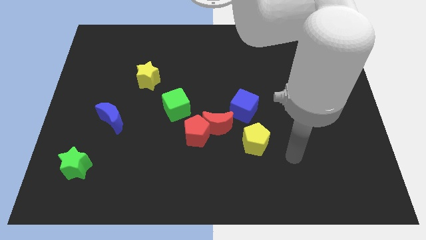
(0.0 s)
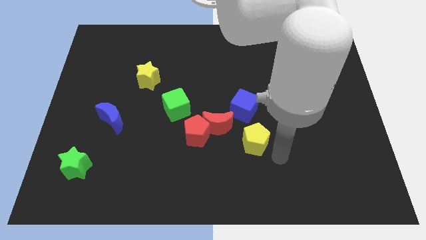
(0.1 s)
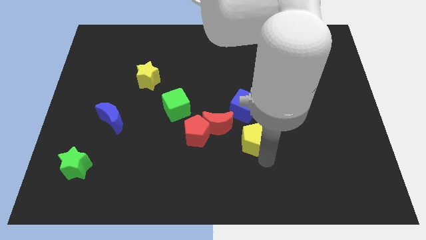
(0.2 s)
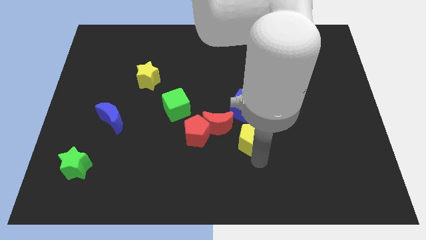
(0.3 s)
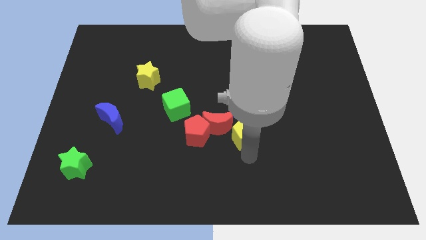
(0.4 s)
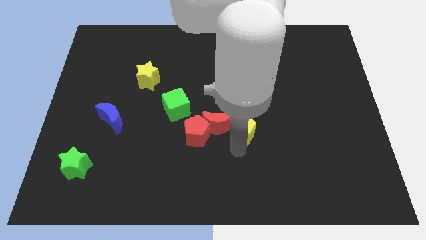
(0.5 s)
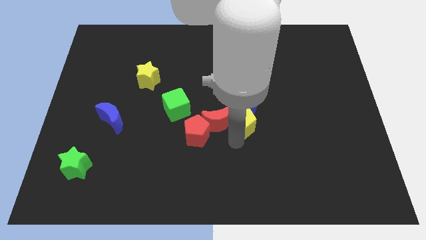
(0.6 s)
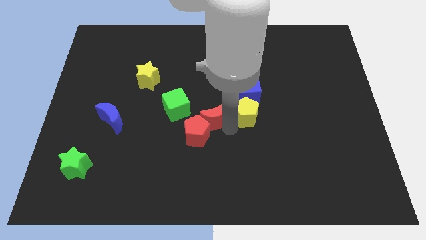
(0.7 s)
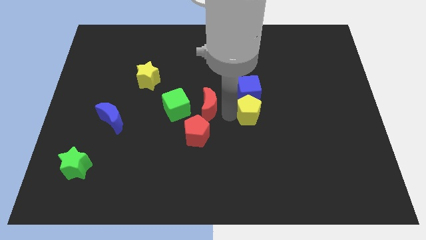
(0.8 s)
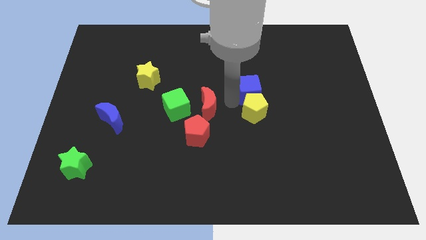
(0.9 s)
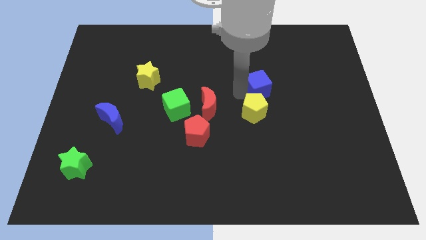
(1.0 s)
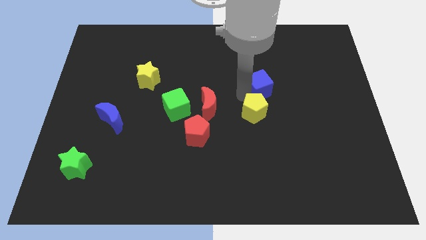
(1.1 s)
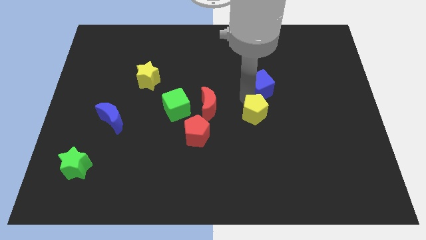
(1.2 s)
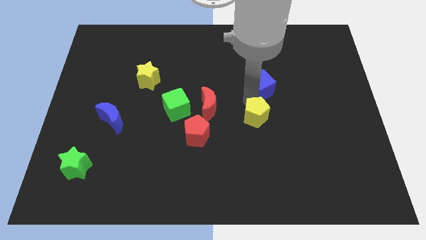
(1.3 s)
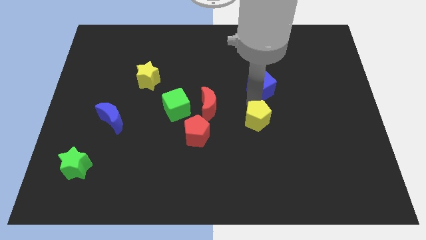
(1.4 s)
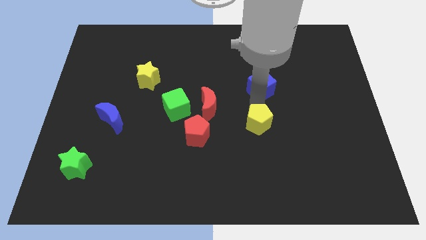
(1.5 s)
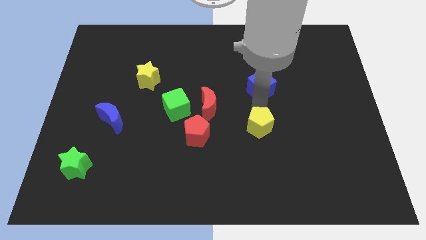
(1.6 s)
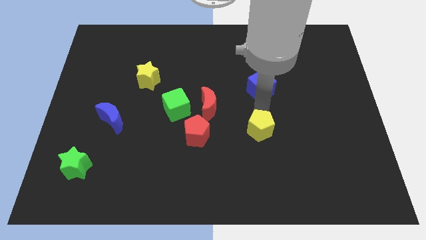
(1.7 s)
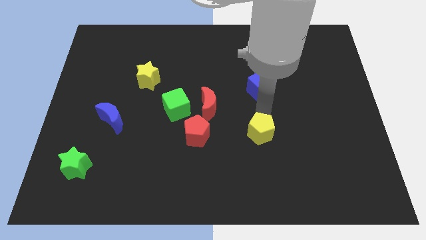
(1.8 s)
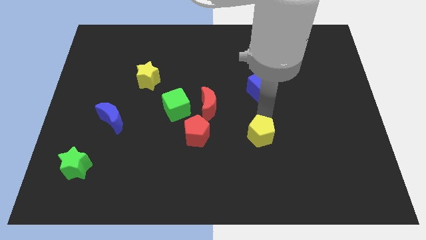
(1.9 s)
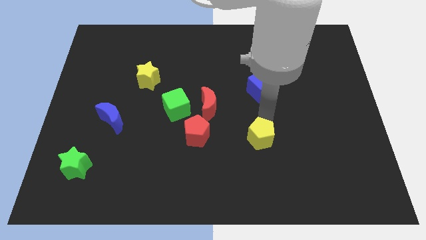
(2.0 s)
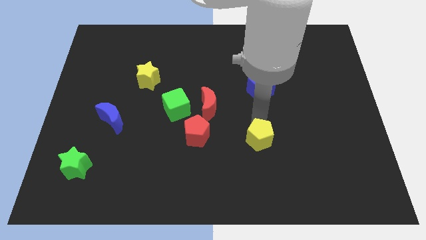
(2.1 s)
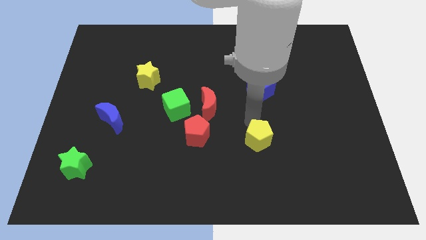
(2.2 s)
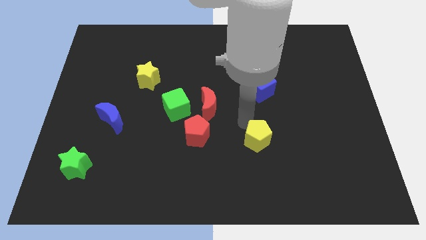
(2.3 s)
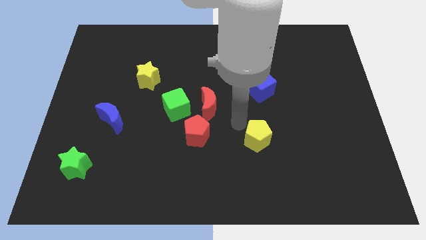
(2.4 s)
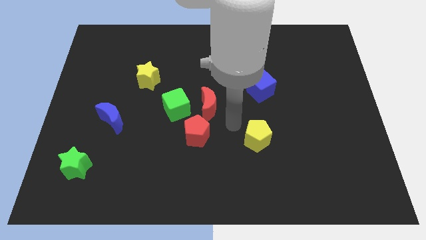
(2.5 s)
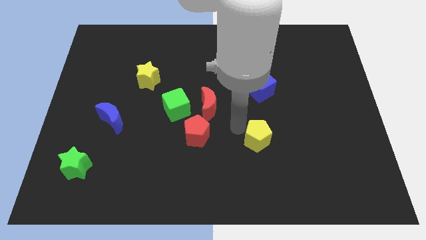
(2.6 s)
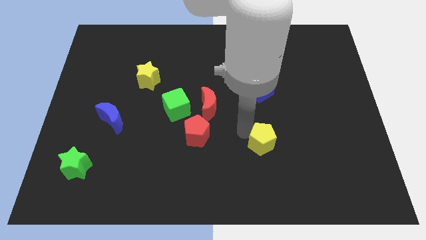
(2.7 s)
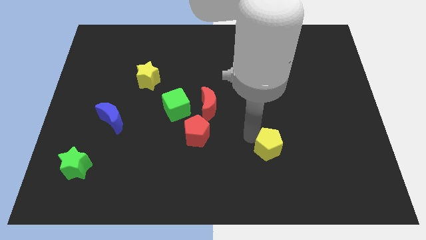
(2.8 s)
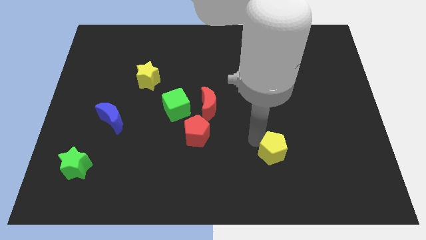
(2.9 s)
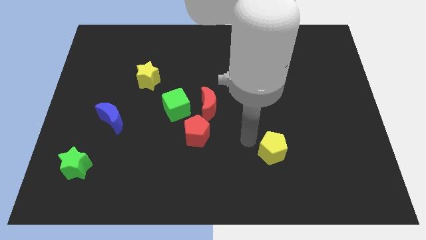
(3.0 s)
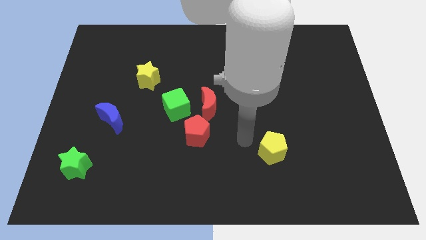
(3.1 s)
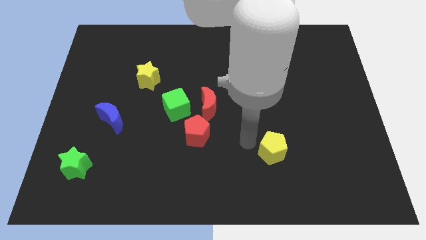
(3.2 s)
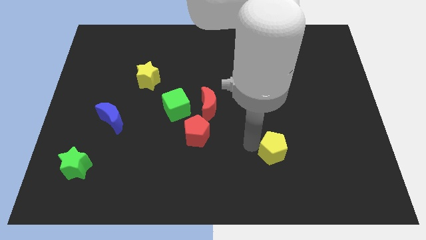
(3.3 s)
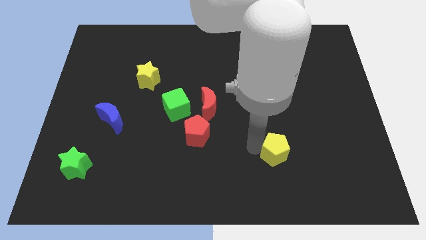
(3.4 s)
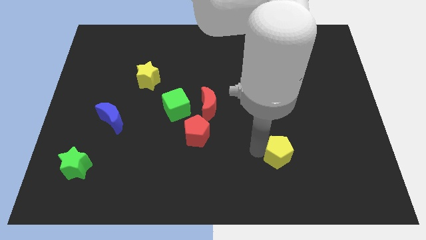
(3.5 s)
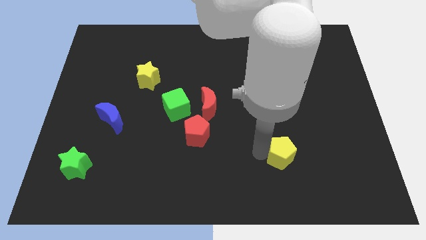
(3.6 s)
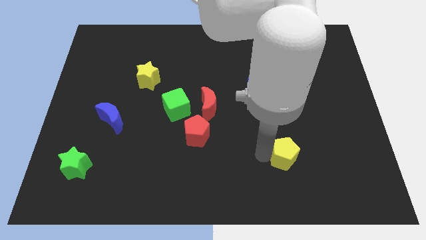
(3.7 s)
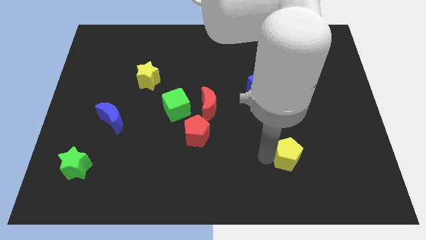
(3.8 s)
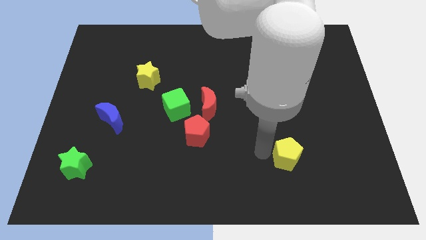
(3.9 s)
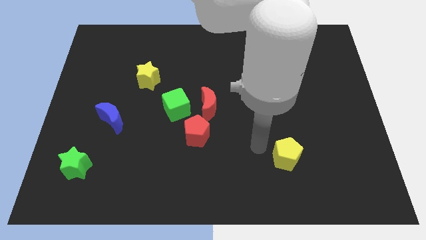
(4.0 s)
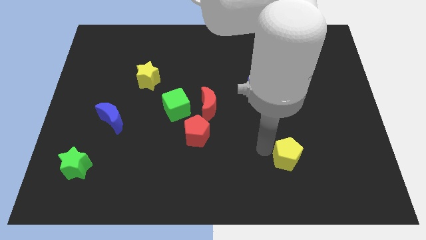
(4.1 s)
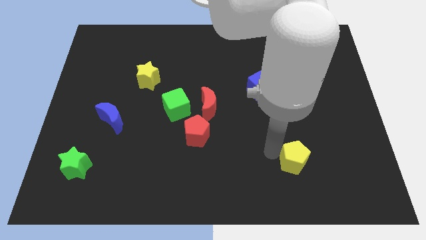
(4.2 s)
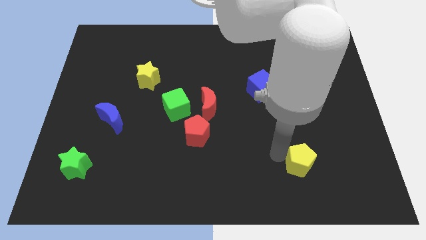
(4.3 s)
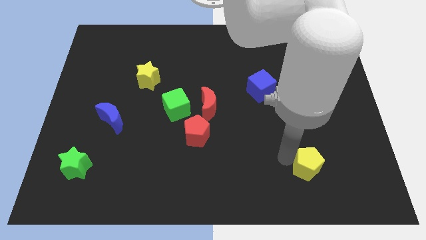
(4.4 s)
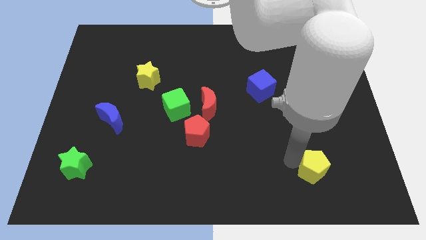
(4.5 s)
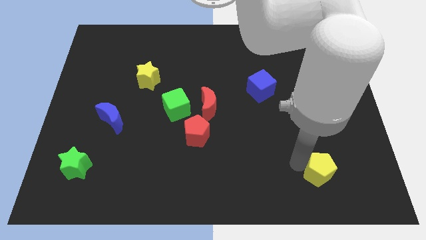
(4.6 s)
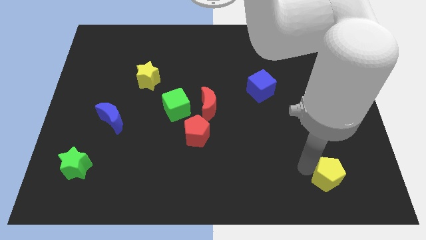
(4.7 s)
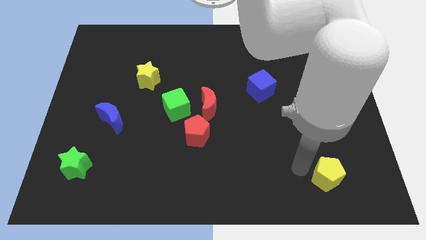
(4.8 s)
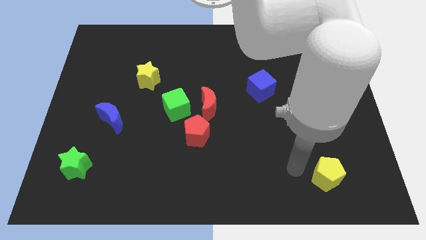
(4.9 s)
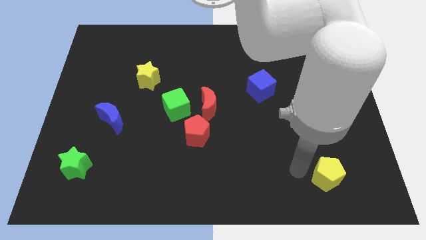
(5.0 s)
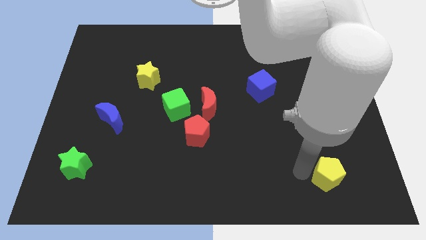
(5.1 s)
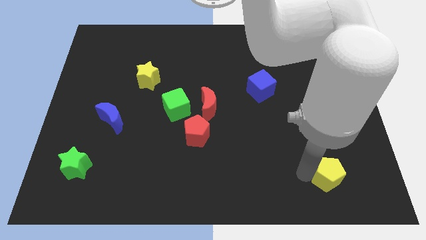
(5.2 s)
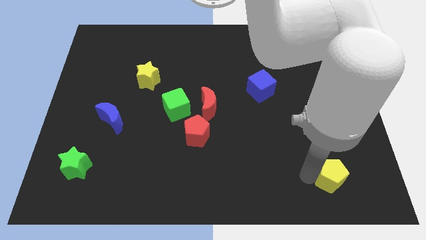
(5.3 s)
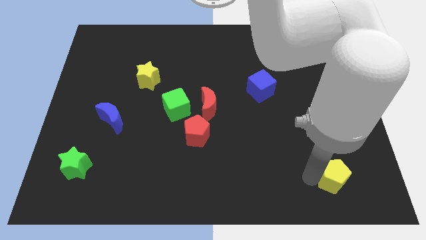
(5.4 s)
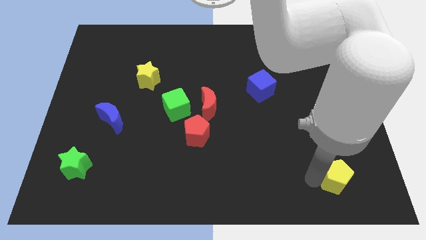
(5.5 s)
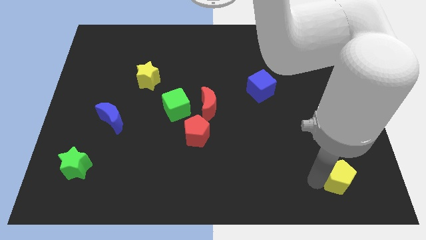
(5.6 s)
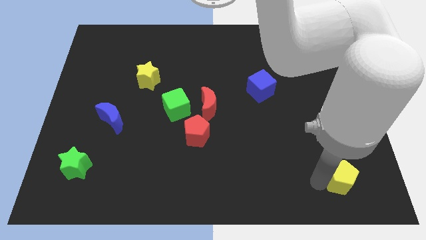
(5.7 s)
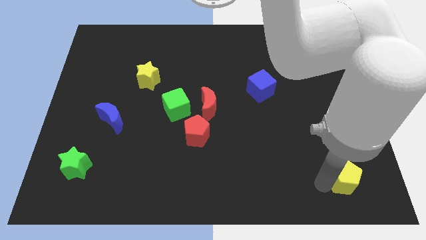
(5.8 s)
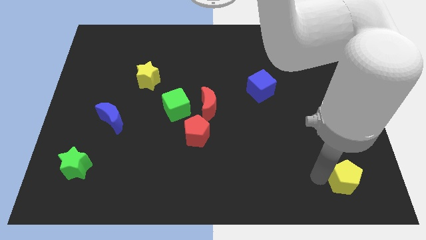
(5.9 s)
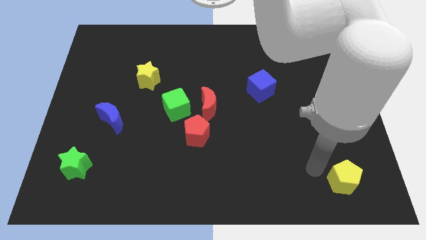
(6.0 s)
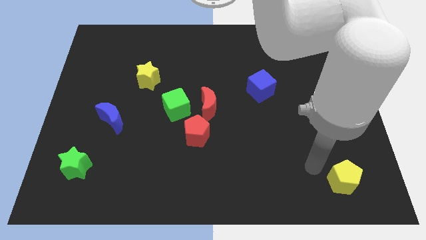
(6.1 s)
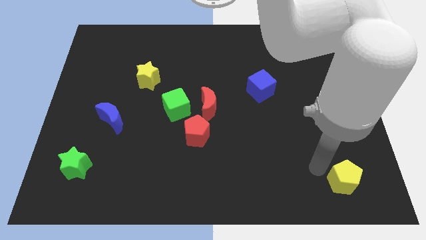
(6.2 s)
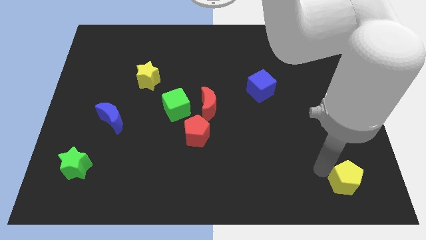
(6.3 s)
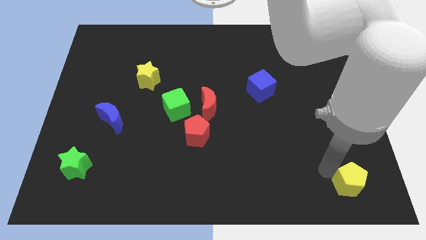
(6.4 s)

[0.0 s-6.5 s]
push the yellow pentagon to the bottom right
